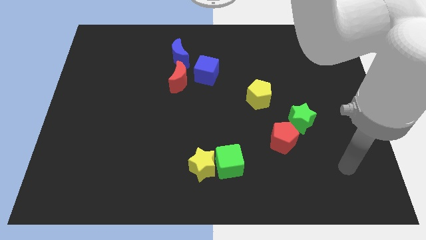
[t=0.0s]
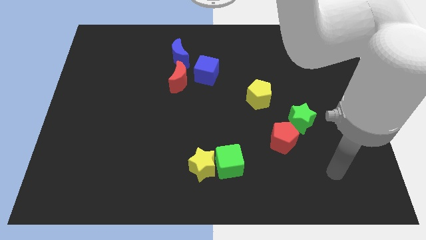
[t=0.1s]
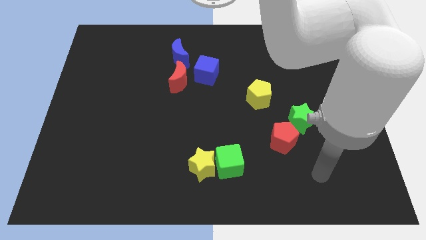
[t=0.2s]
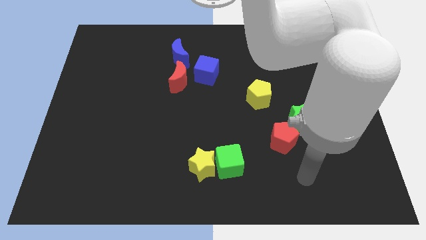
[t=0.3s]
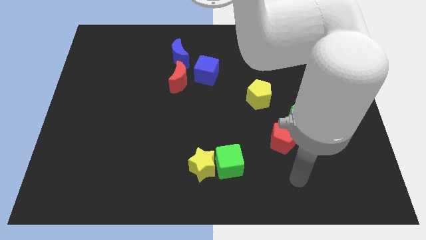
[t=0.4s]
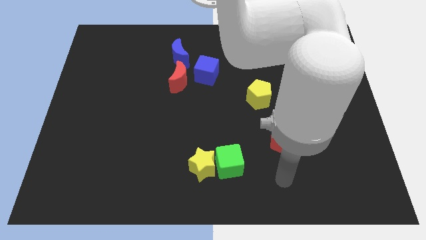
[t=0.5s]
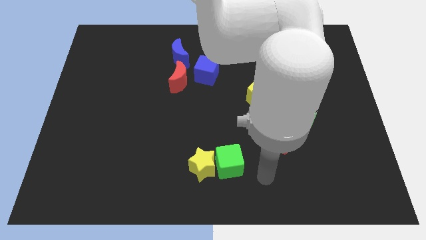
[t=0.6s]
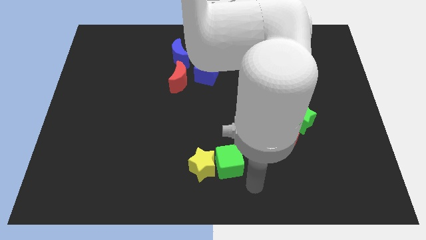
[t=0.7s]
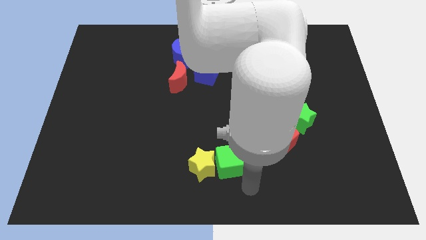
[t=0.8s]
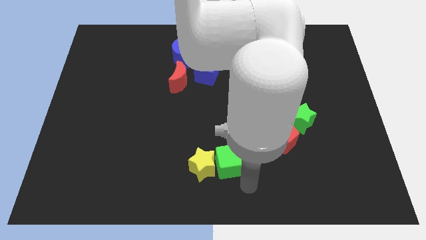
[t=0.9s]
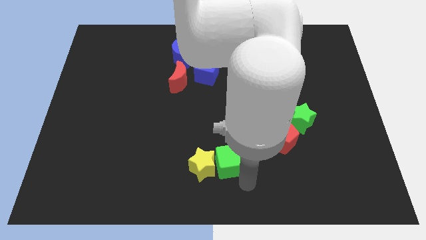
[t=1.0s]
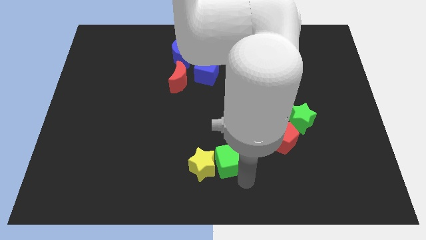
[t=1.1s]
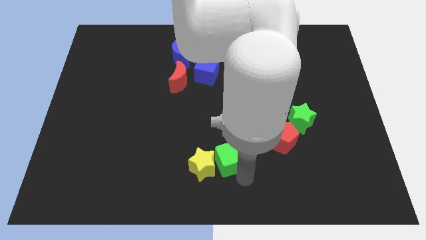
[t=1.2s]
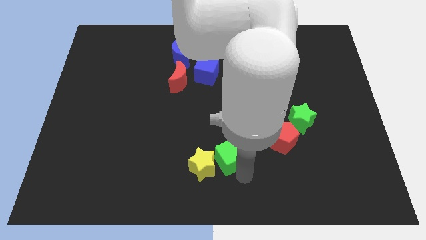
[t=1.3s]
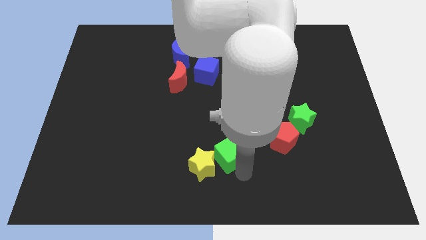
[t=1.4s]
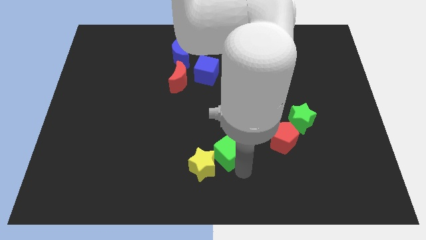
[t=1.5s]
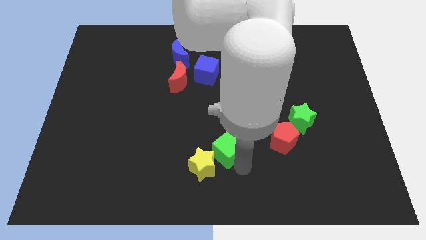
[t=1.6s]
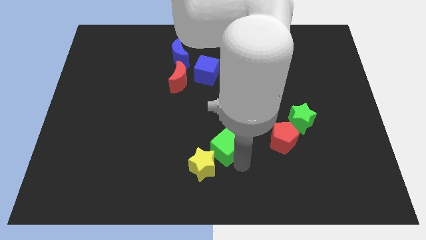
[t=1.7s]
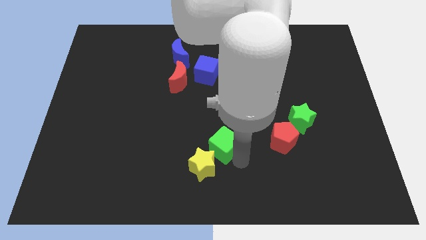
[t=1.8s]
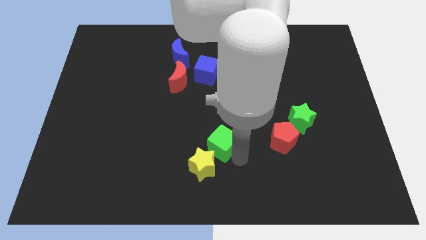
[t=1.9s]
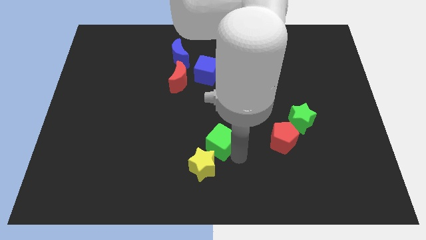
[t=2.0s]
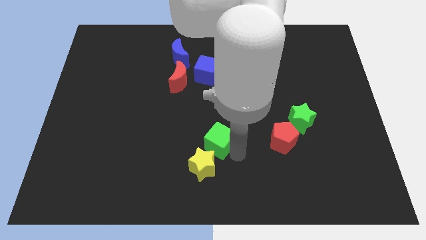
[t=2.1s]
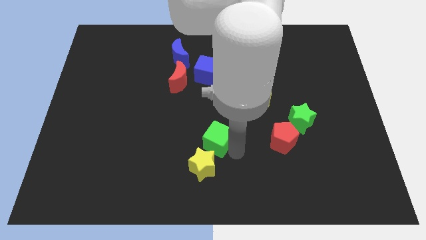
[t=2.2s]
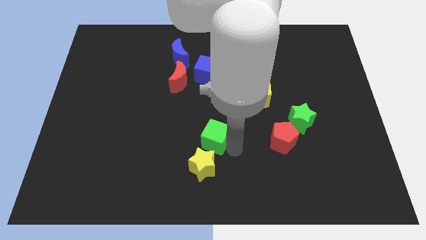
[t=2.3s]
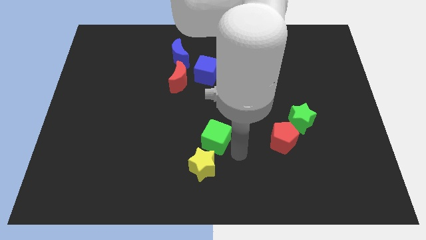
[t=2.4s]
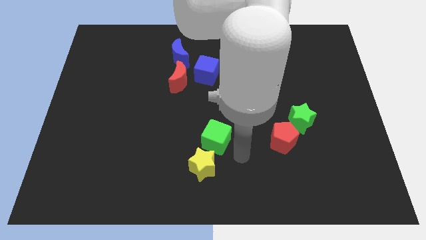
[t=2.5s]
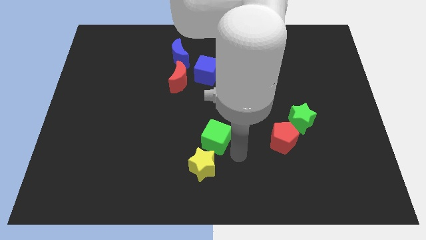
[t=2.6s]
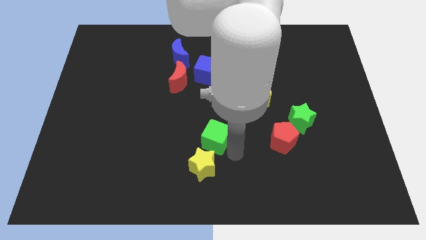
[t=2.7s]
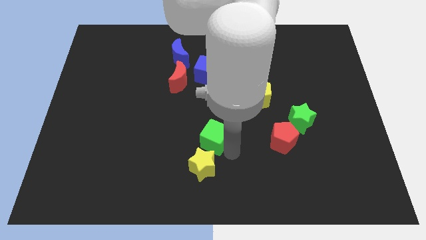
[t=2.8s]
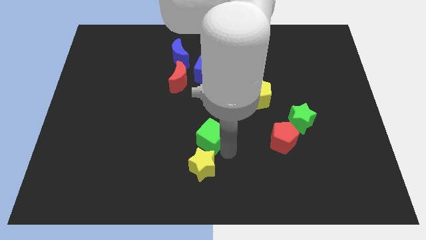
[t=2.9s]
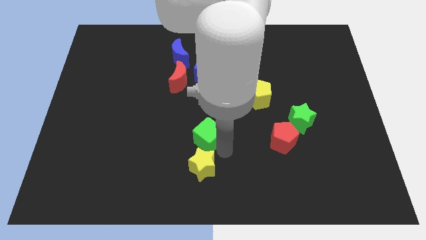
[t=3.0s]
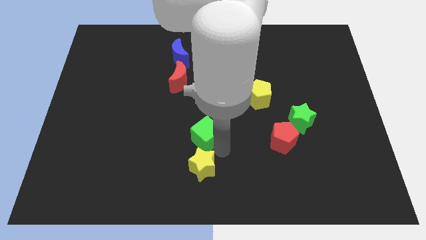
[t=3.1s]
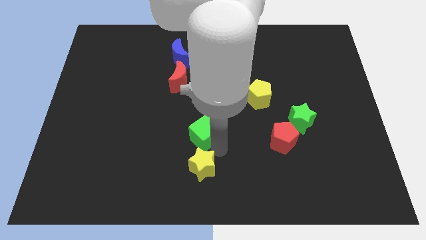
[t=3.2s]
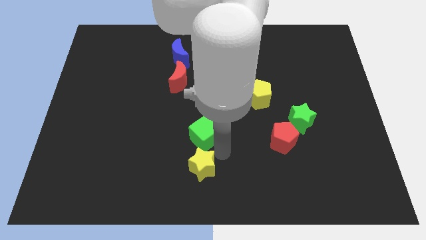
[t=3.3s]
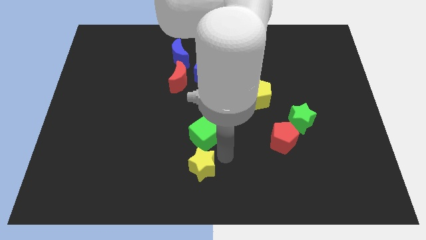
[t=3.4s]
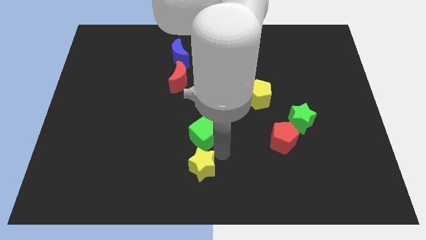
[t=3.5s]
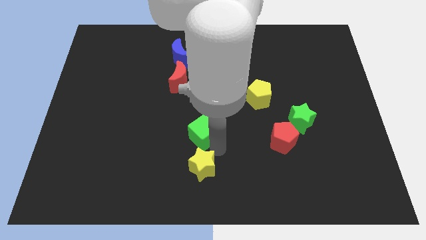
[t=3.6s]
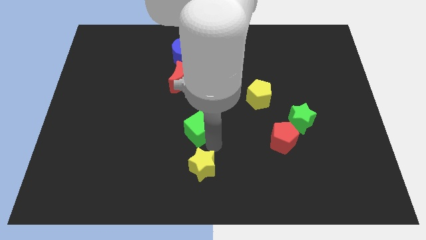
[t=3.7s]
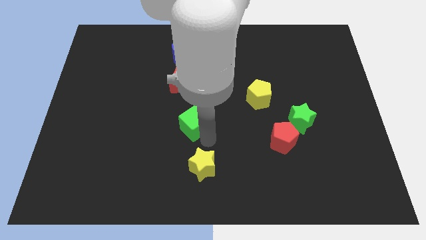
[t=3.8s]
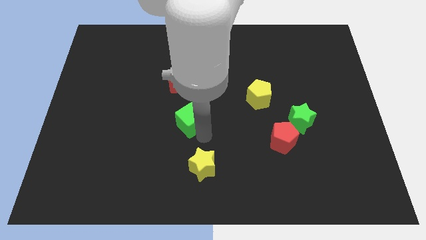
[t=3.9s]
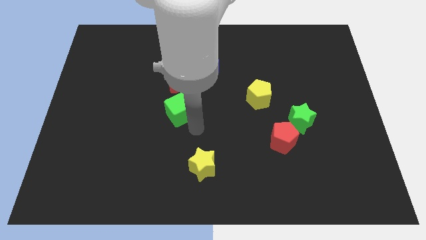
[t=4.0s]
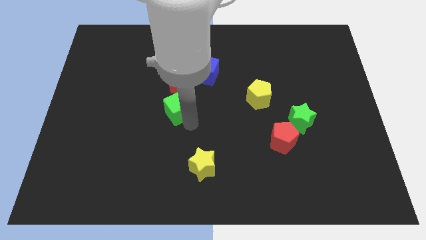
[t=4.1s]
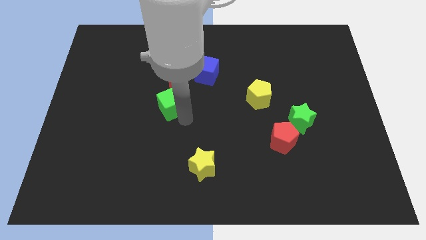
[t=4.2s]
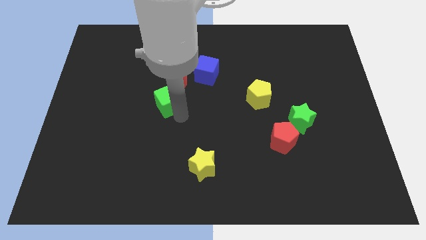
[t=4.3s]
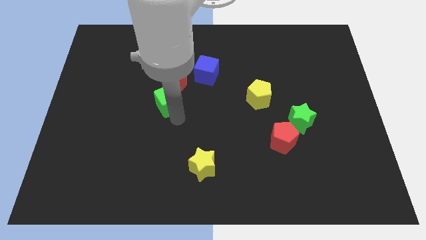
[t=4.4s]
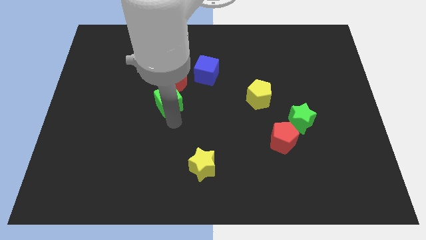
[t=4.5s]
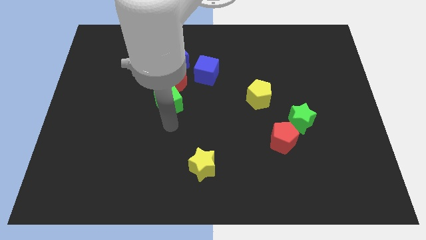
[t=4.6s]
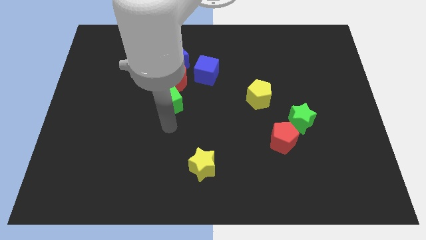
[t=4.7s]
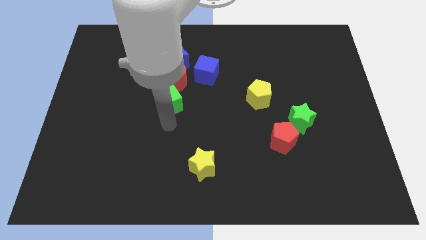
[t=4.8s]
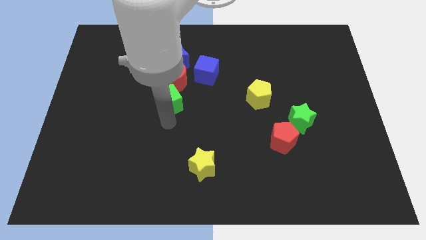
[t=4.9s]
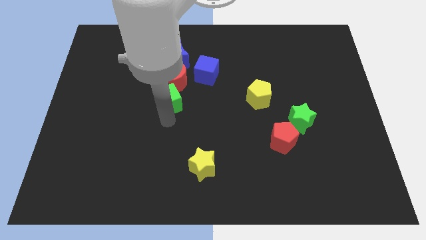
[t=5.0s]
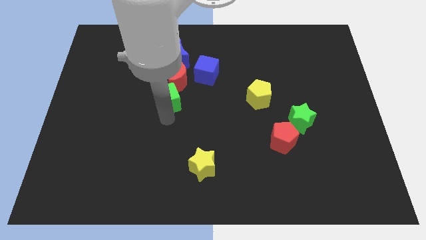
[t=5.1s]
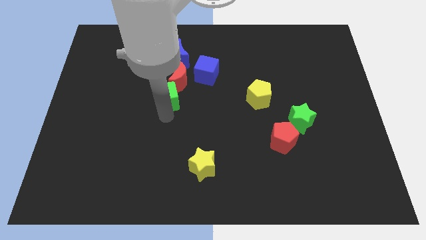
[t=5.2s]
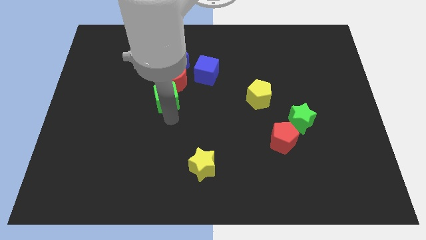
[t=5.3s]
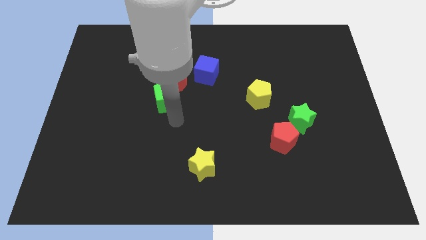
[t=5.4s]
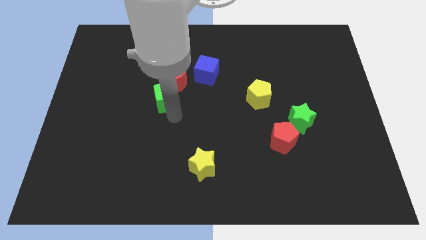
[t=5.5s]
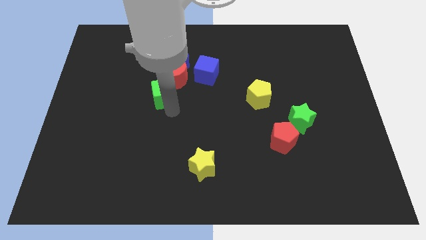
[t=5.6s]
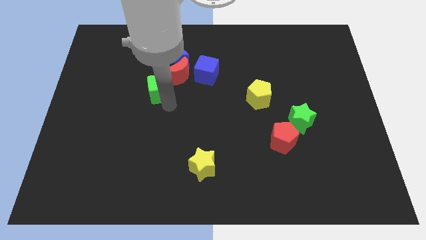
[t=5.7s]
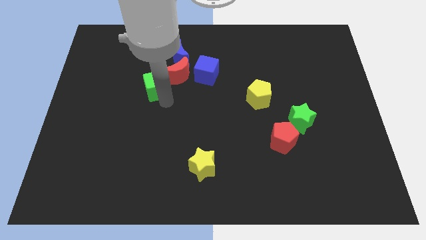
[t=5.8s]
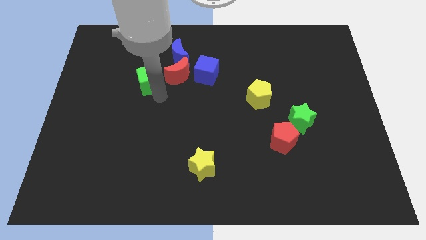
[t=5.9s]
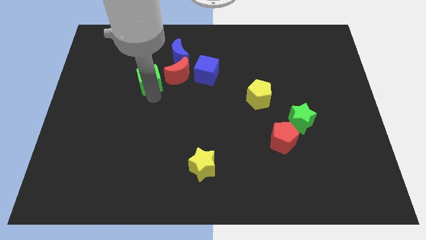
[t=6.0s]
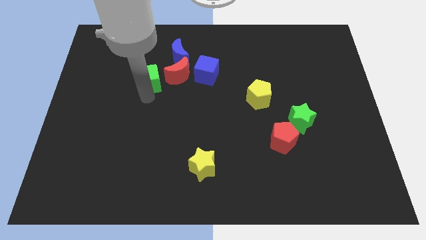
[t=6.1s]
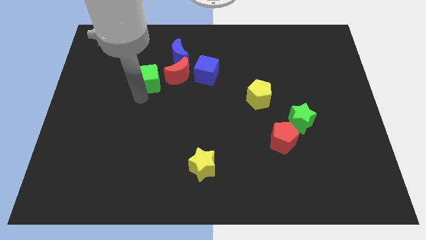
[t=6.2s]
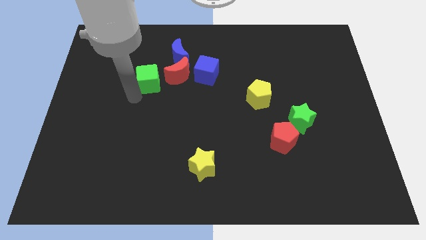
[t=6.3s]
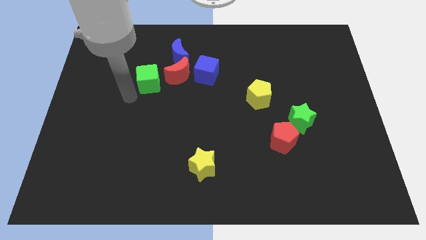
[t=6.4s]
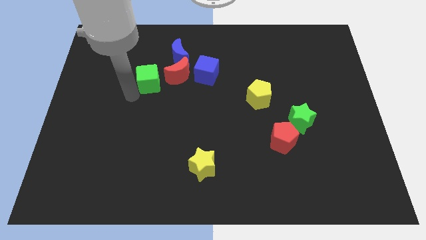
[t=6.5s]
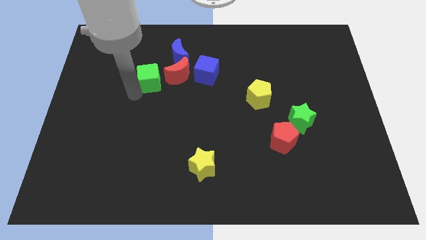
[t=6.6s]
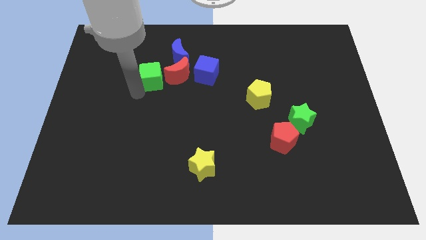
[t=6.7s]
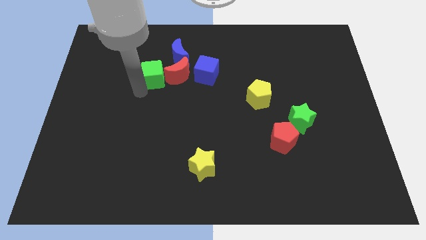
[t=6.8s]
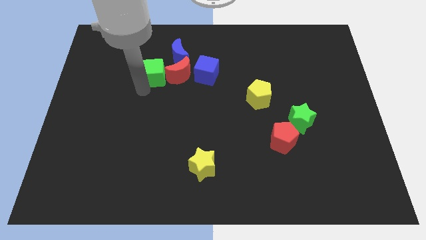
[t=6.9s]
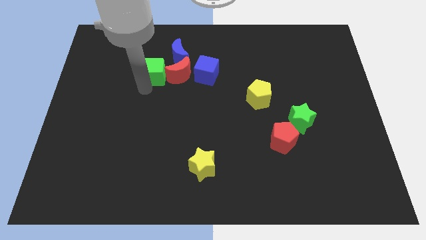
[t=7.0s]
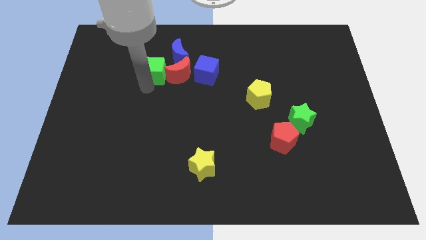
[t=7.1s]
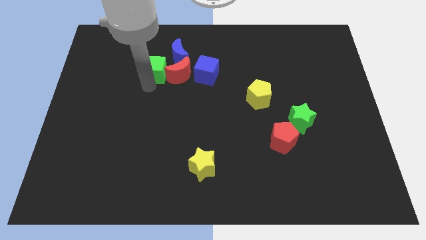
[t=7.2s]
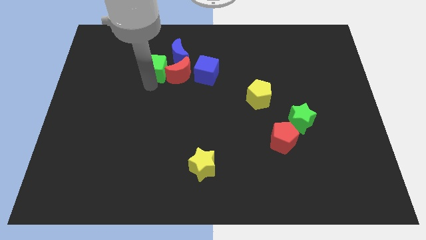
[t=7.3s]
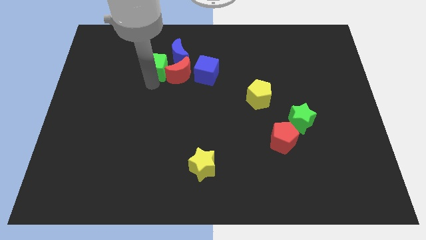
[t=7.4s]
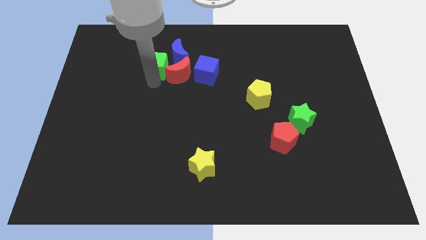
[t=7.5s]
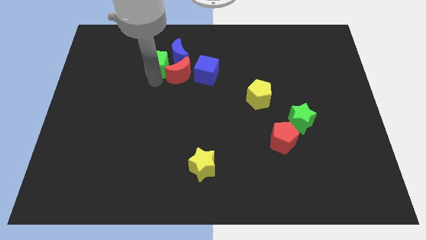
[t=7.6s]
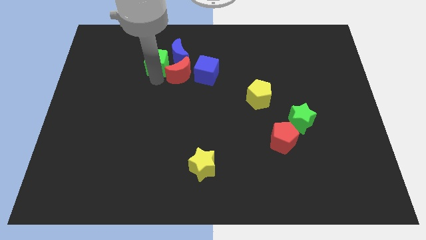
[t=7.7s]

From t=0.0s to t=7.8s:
push the green cube next to the blue moon

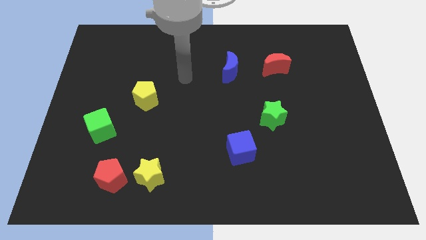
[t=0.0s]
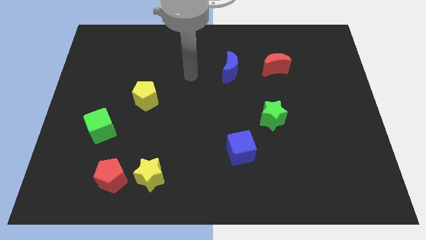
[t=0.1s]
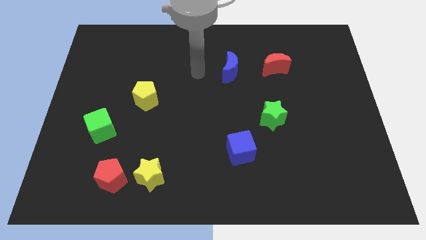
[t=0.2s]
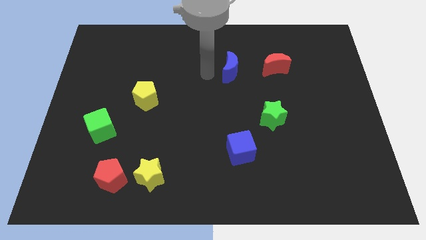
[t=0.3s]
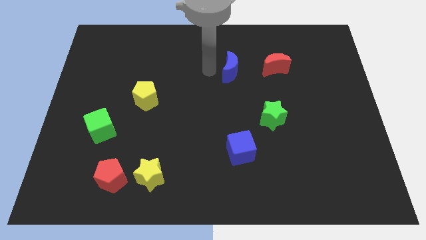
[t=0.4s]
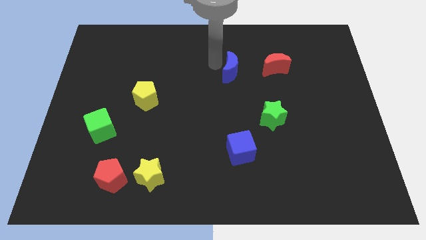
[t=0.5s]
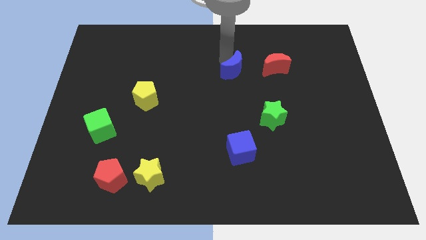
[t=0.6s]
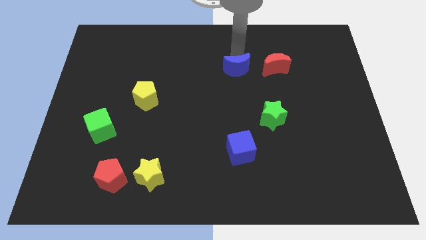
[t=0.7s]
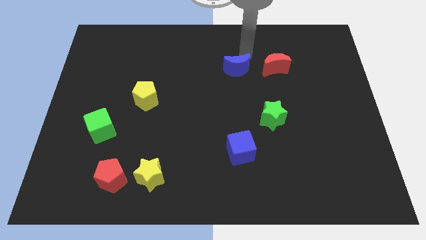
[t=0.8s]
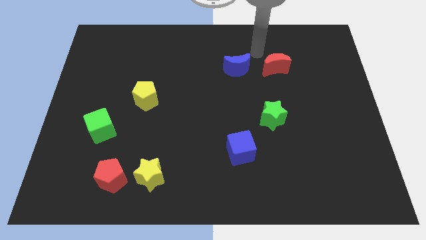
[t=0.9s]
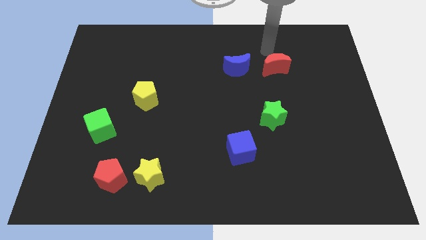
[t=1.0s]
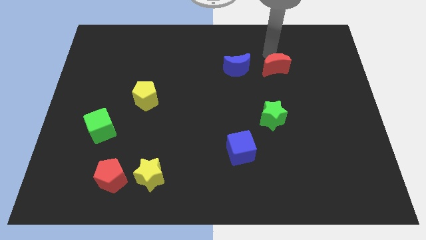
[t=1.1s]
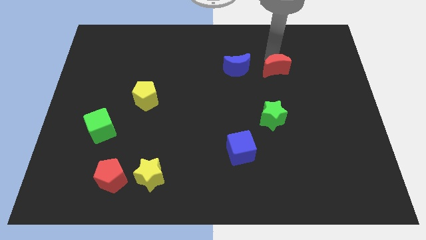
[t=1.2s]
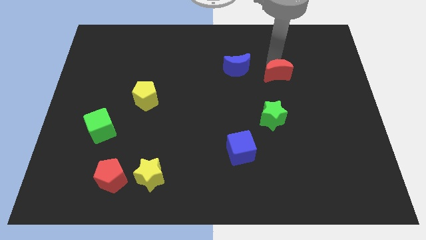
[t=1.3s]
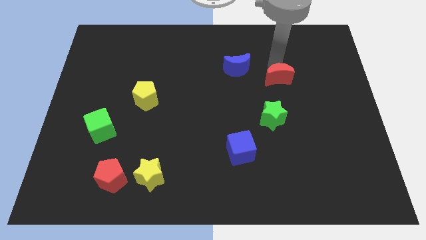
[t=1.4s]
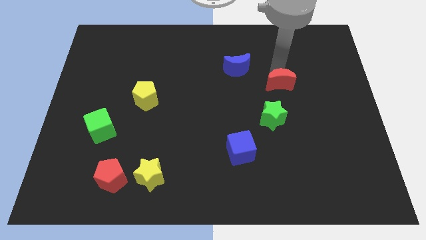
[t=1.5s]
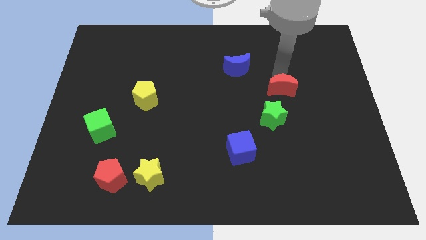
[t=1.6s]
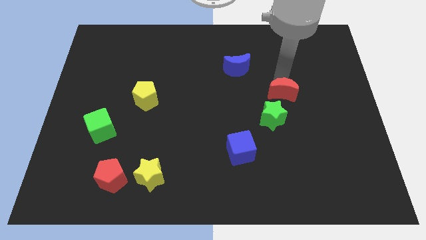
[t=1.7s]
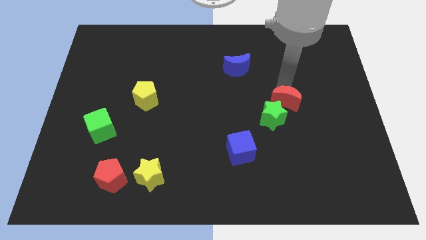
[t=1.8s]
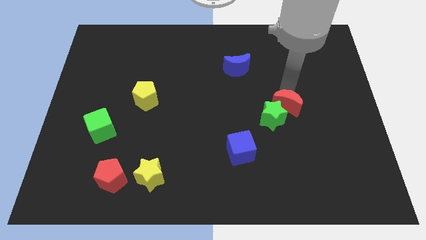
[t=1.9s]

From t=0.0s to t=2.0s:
push the red moon to the green star
